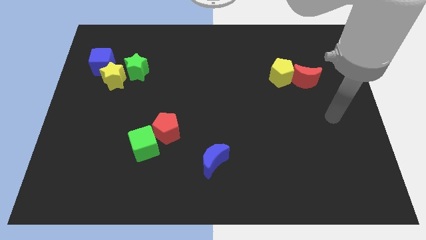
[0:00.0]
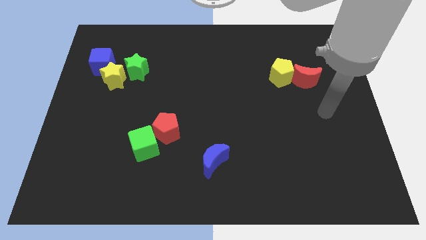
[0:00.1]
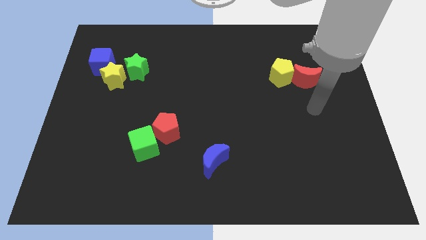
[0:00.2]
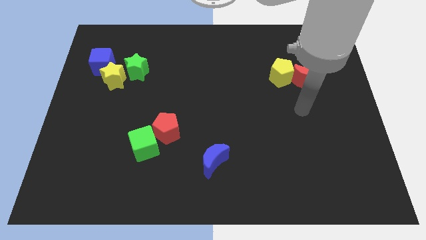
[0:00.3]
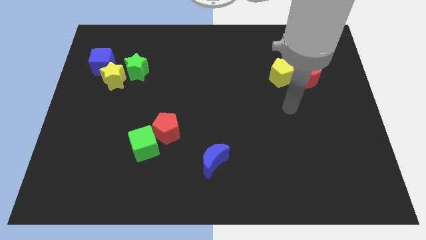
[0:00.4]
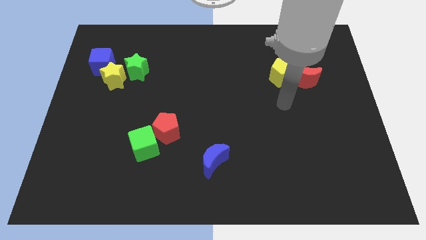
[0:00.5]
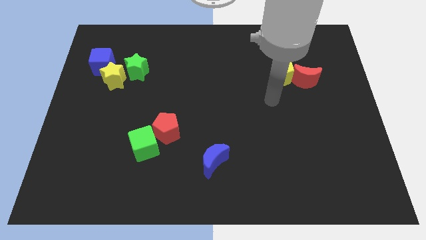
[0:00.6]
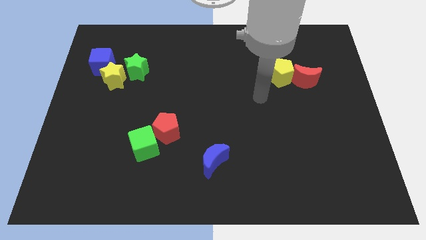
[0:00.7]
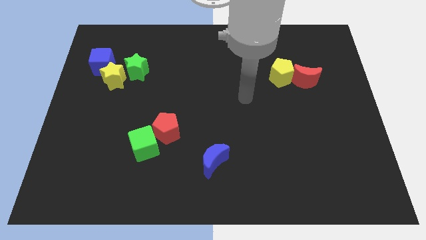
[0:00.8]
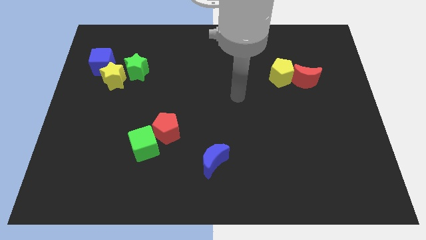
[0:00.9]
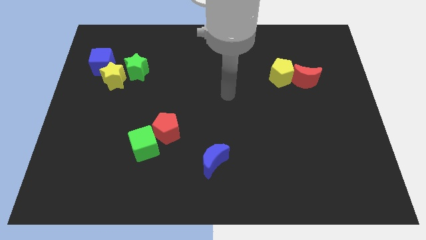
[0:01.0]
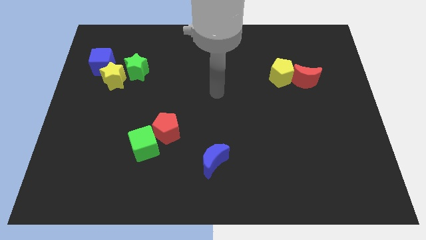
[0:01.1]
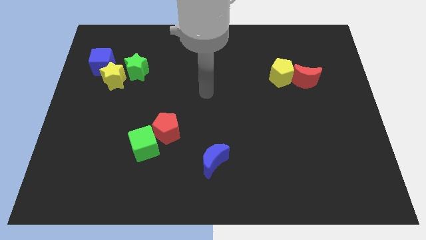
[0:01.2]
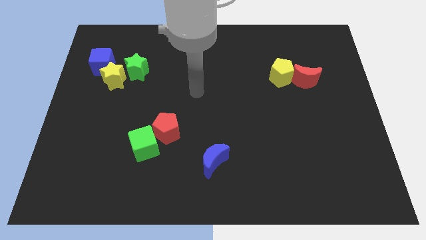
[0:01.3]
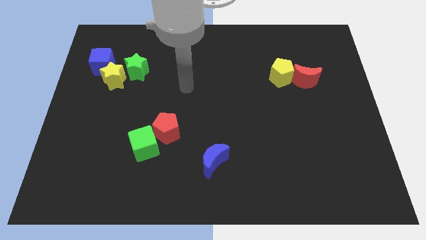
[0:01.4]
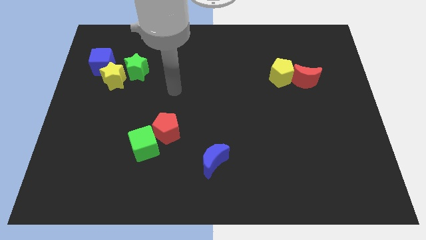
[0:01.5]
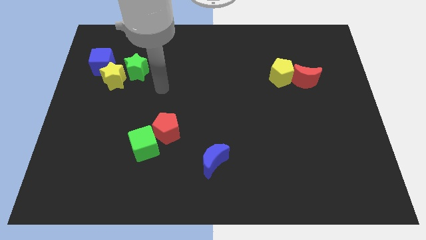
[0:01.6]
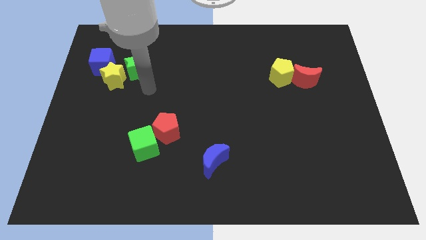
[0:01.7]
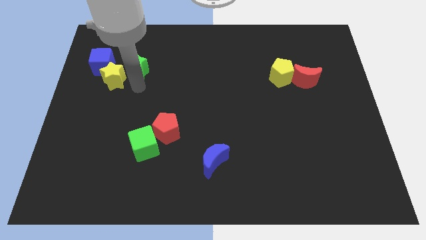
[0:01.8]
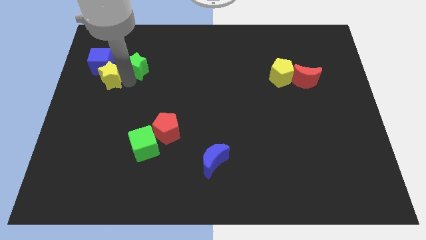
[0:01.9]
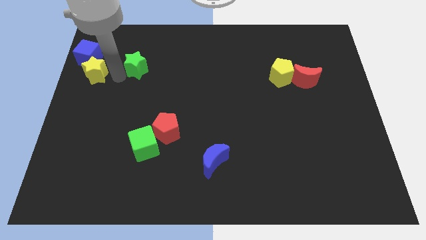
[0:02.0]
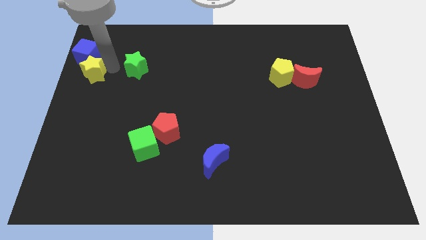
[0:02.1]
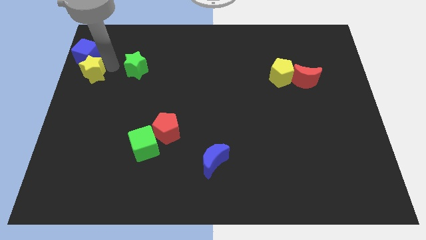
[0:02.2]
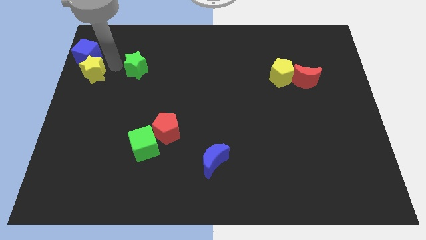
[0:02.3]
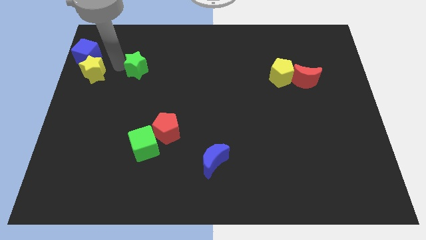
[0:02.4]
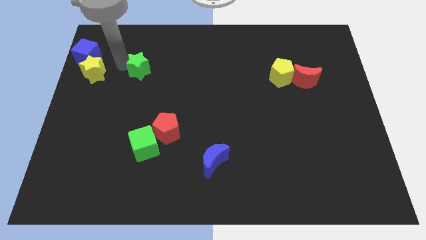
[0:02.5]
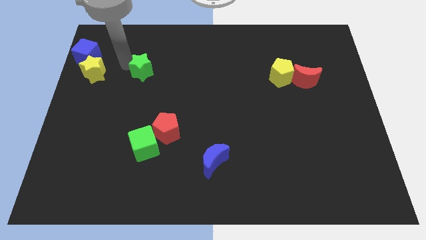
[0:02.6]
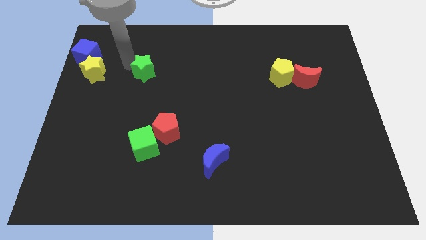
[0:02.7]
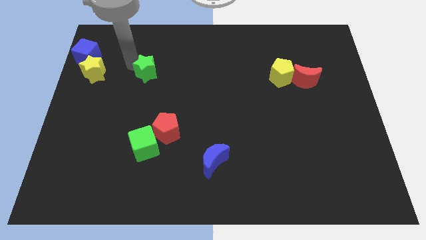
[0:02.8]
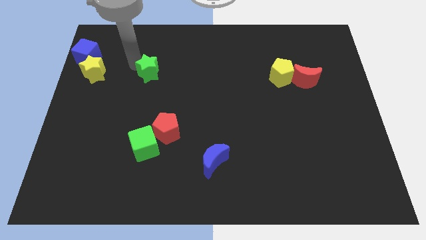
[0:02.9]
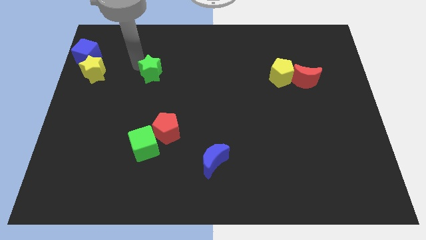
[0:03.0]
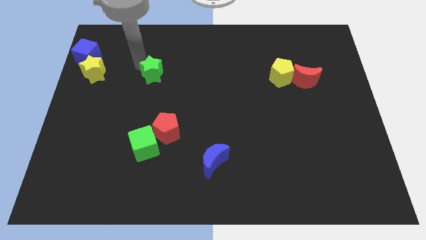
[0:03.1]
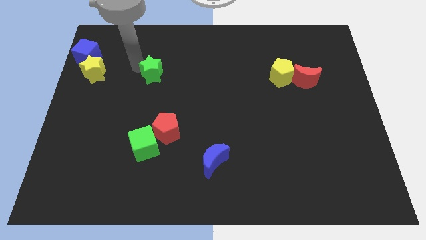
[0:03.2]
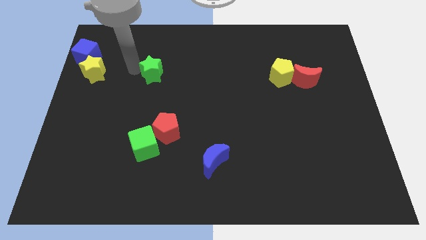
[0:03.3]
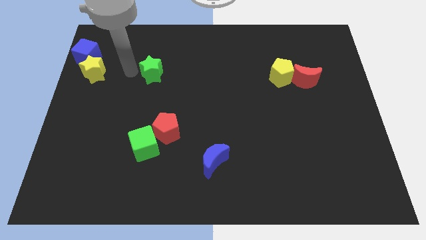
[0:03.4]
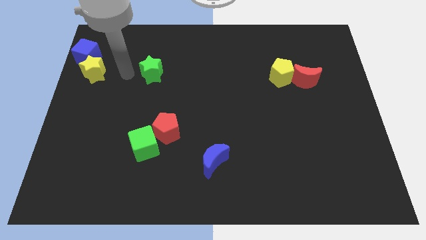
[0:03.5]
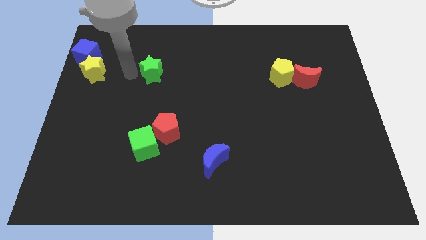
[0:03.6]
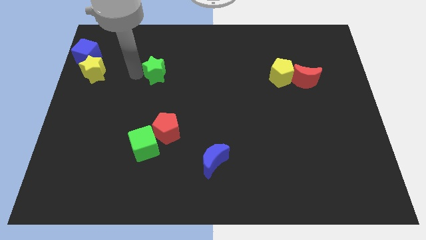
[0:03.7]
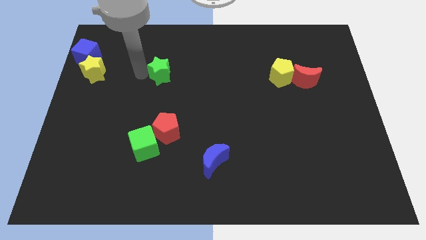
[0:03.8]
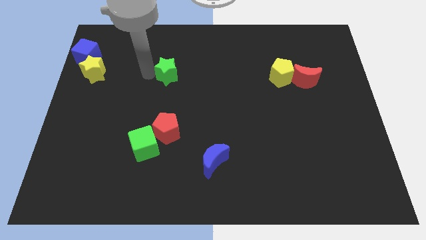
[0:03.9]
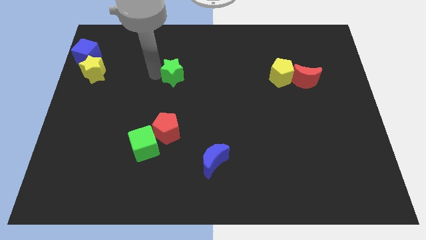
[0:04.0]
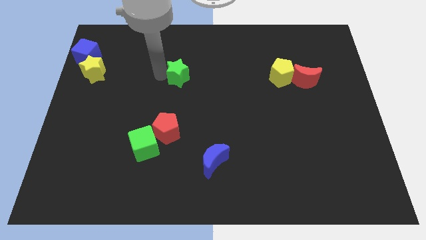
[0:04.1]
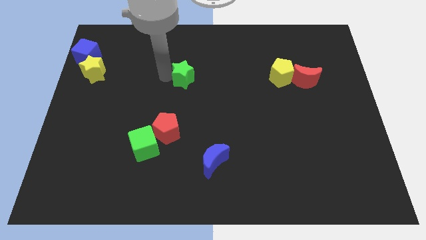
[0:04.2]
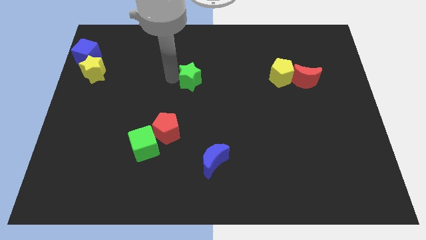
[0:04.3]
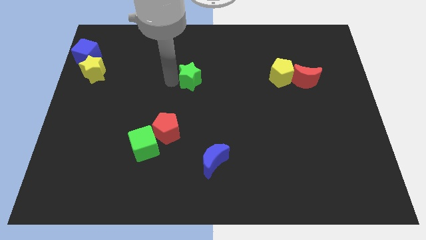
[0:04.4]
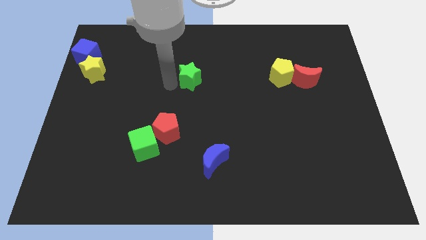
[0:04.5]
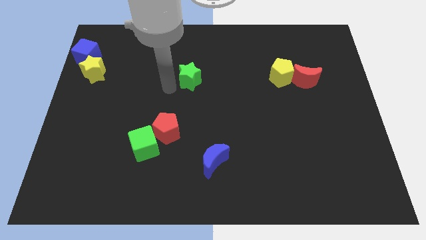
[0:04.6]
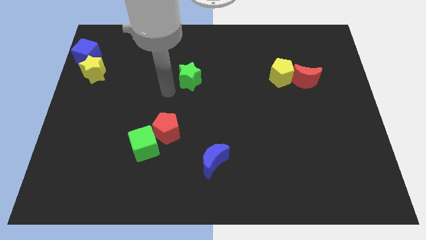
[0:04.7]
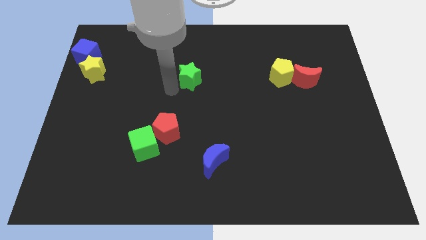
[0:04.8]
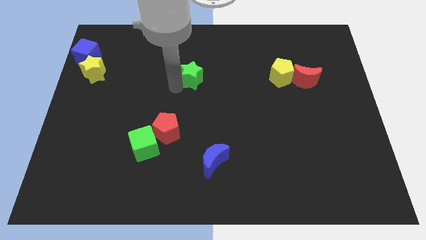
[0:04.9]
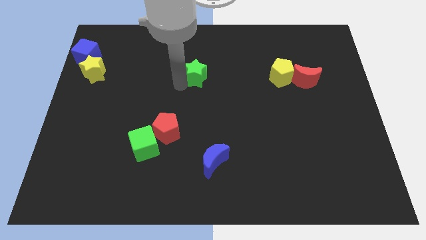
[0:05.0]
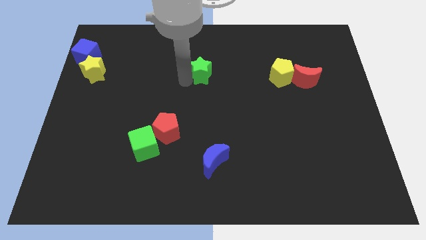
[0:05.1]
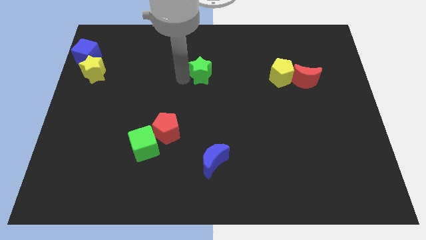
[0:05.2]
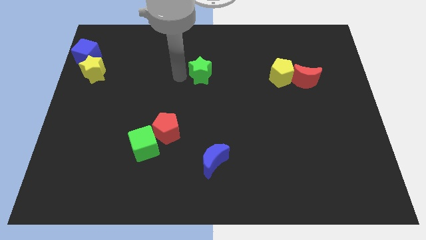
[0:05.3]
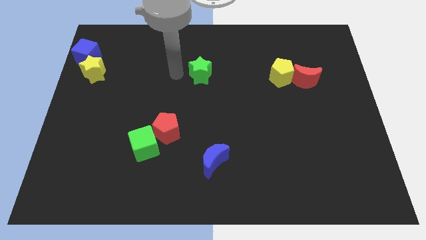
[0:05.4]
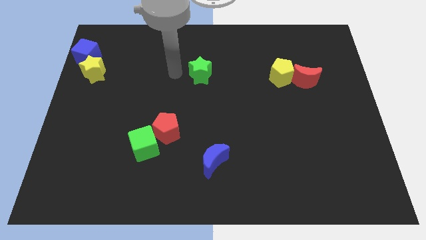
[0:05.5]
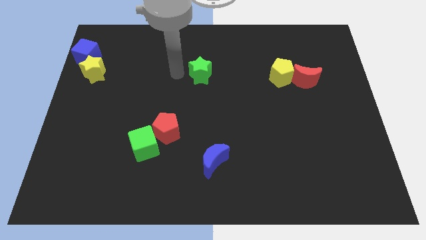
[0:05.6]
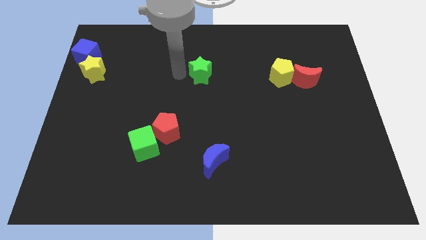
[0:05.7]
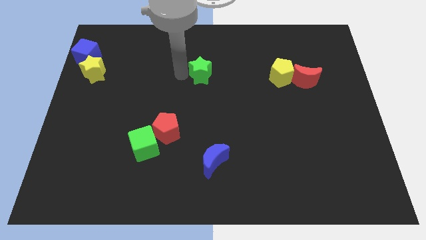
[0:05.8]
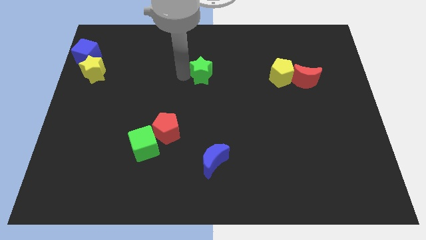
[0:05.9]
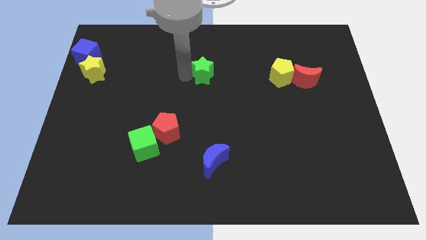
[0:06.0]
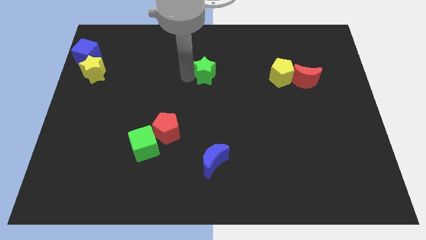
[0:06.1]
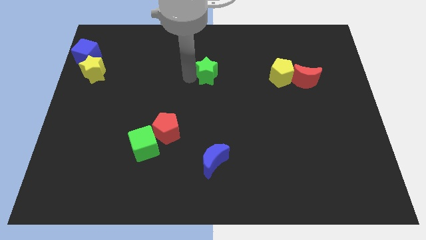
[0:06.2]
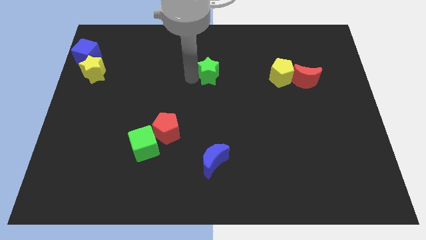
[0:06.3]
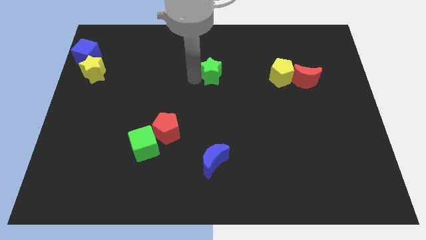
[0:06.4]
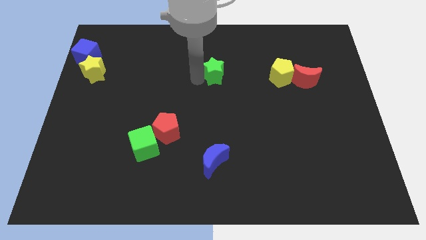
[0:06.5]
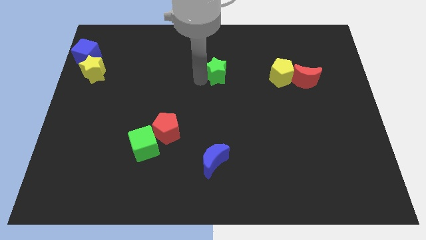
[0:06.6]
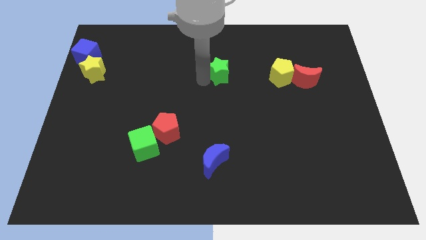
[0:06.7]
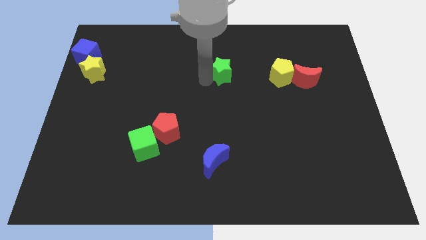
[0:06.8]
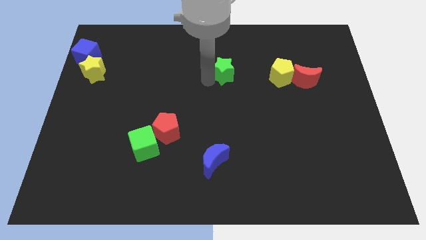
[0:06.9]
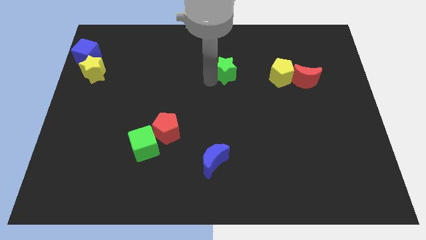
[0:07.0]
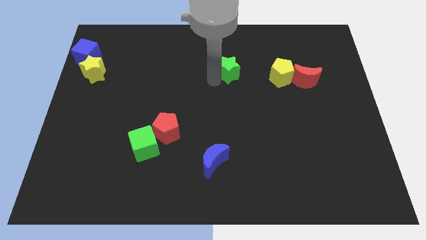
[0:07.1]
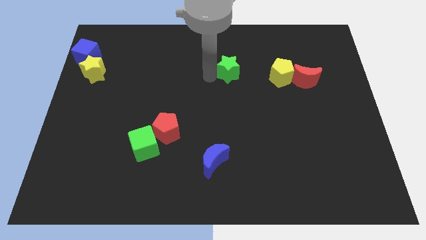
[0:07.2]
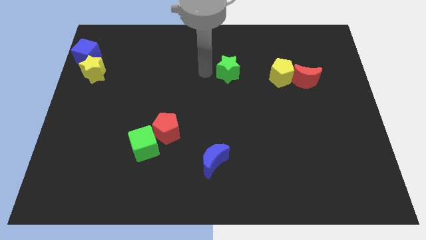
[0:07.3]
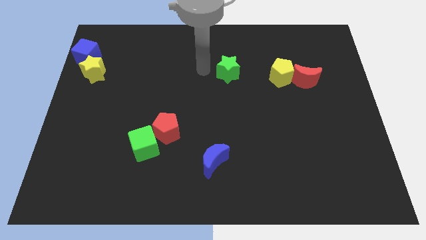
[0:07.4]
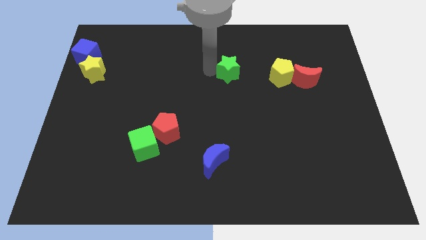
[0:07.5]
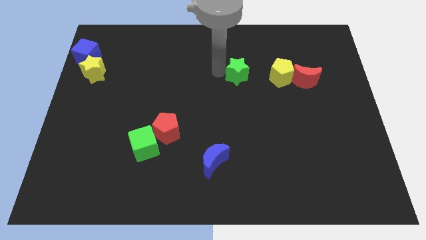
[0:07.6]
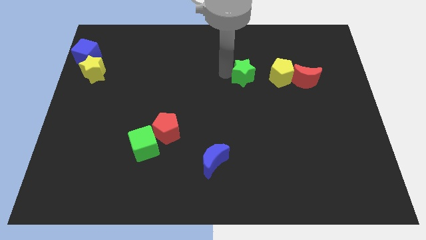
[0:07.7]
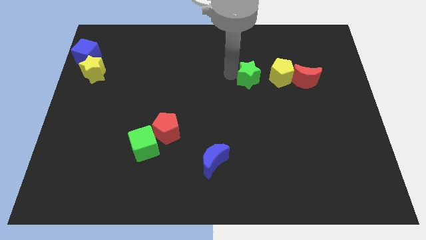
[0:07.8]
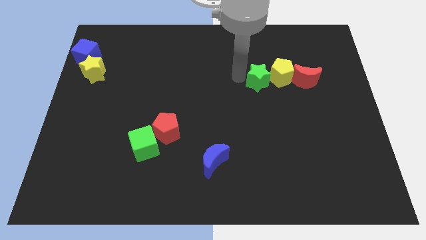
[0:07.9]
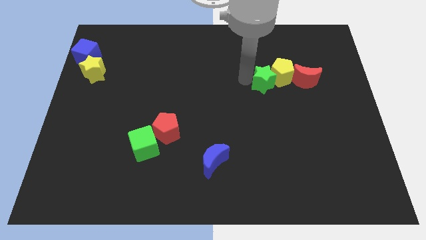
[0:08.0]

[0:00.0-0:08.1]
push the green star towards the yellow pentagon
